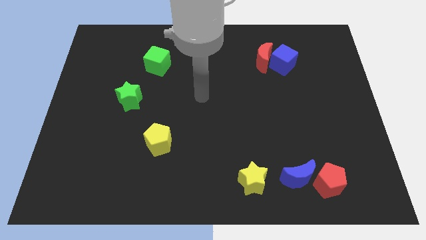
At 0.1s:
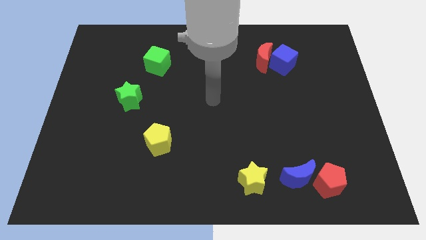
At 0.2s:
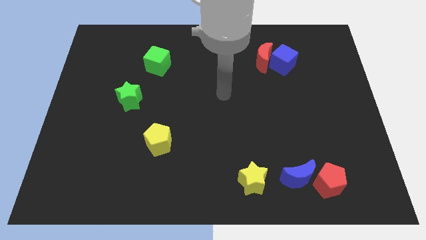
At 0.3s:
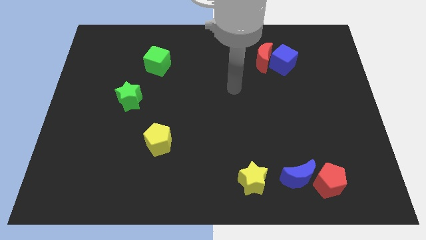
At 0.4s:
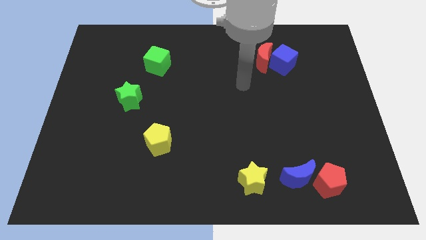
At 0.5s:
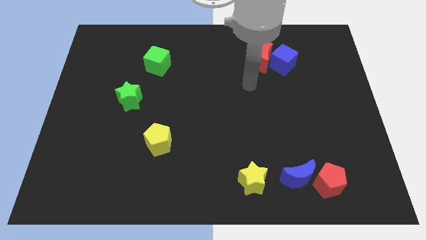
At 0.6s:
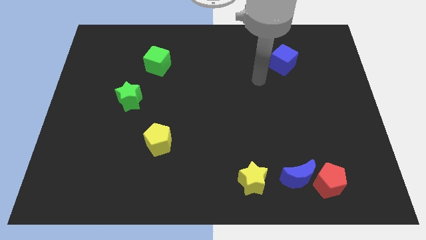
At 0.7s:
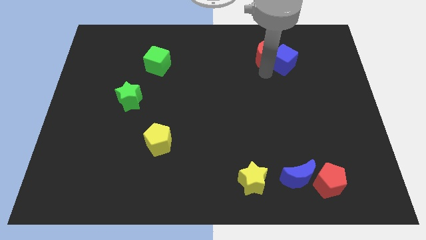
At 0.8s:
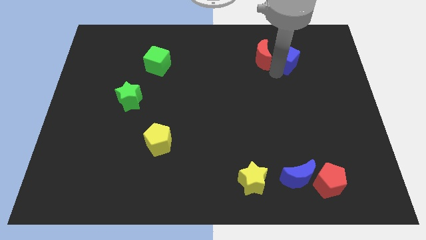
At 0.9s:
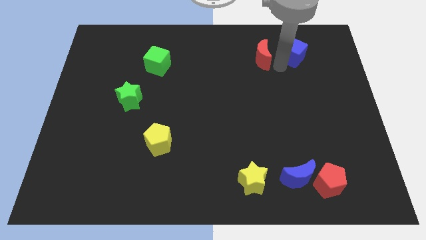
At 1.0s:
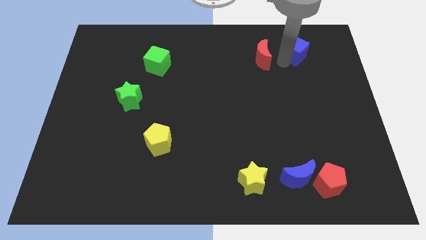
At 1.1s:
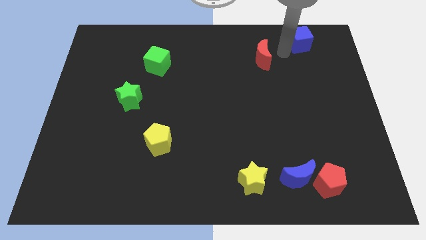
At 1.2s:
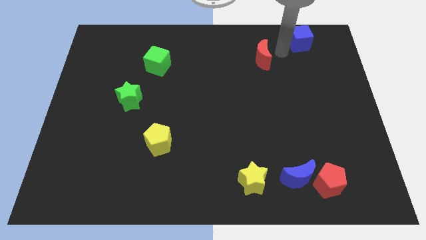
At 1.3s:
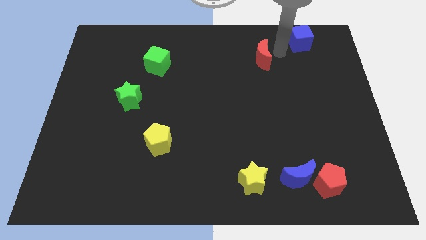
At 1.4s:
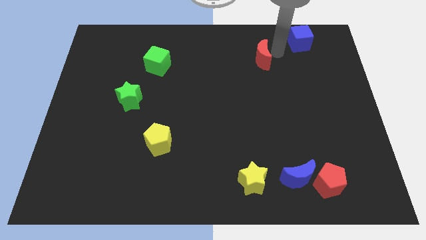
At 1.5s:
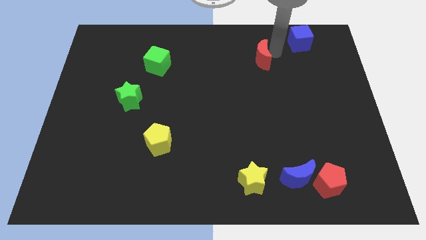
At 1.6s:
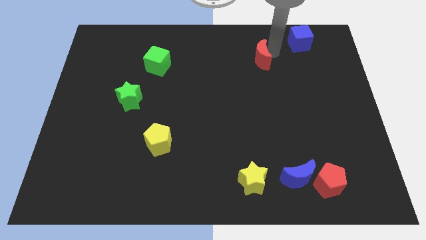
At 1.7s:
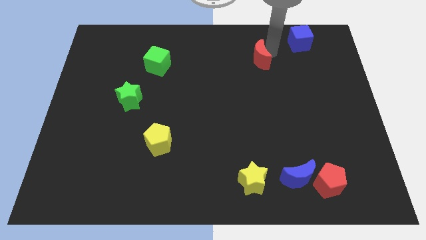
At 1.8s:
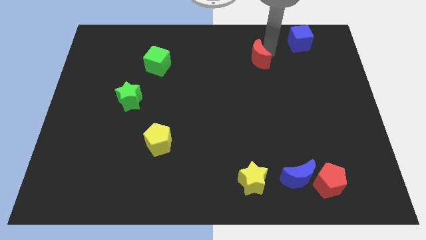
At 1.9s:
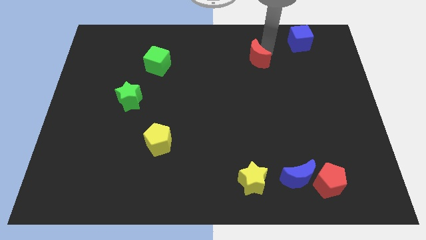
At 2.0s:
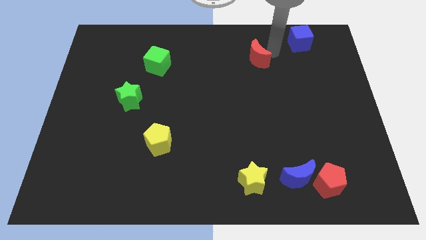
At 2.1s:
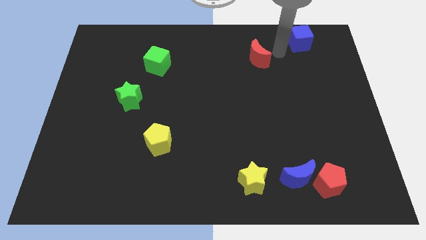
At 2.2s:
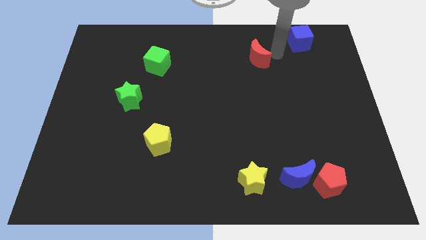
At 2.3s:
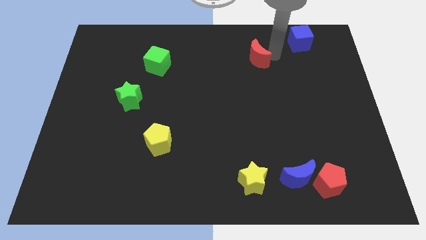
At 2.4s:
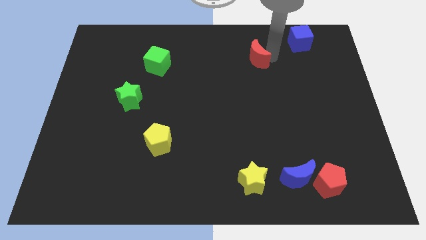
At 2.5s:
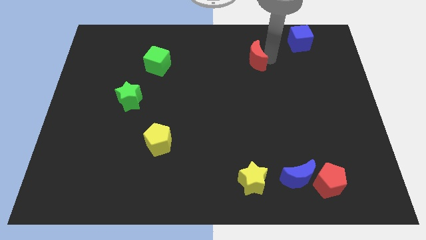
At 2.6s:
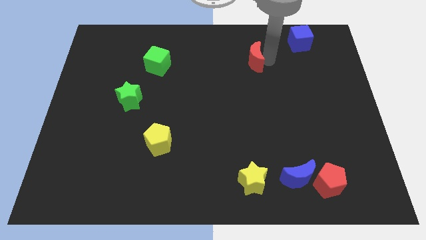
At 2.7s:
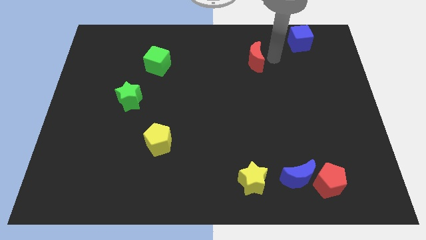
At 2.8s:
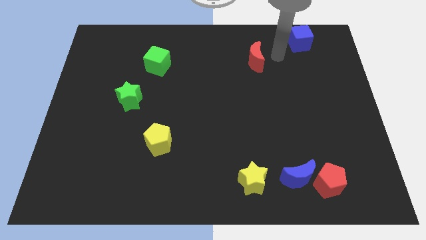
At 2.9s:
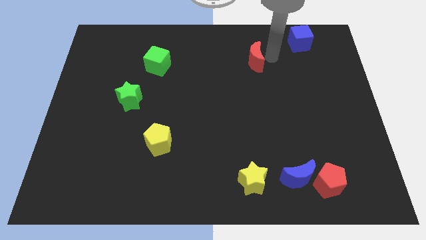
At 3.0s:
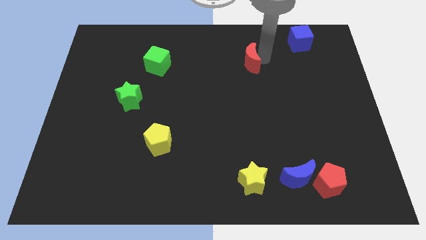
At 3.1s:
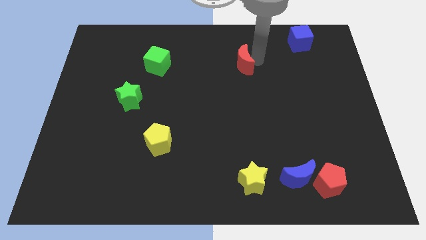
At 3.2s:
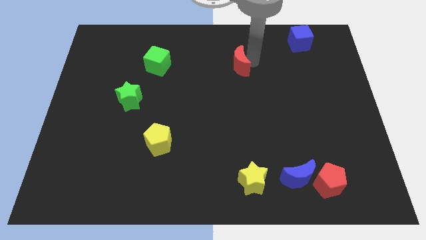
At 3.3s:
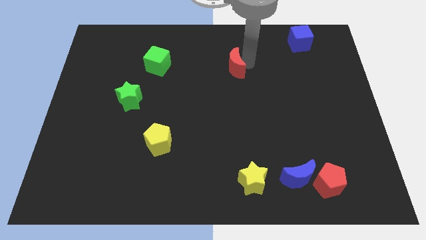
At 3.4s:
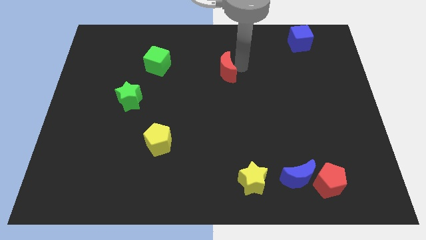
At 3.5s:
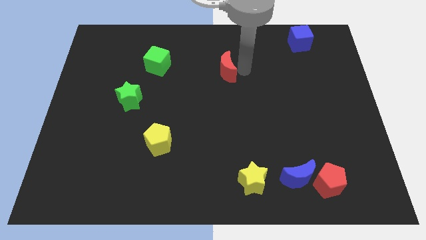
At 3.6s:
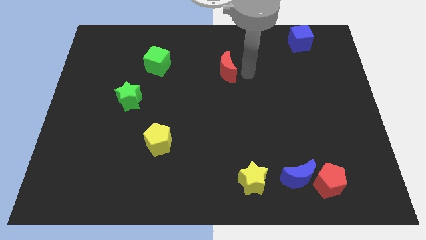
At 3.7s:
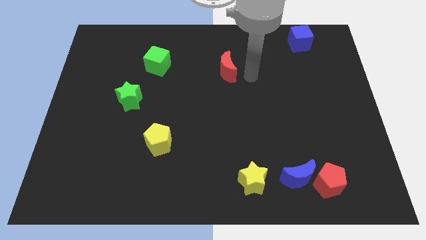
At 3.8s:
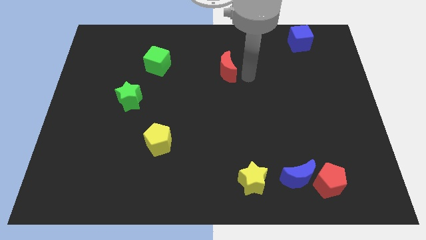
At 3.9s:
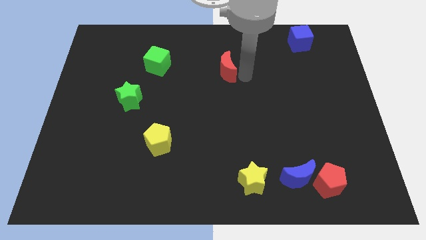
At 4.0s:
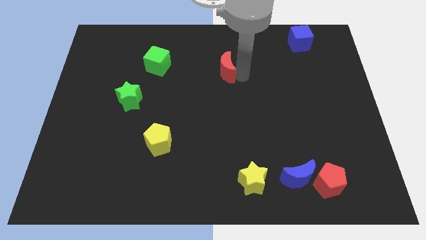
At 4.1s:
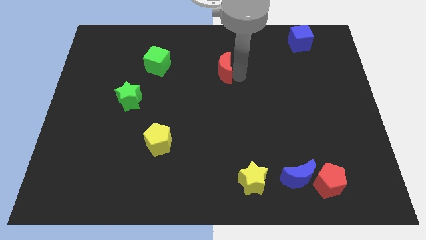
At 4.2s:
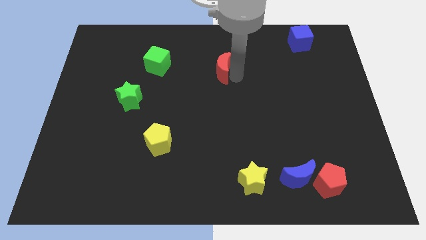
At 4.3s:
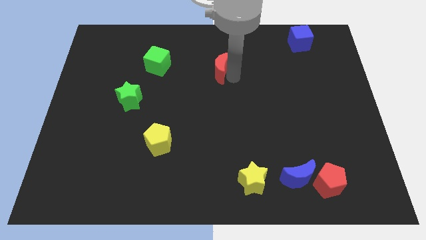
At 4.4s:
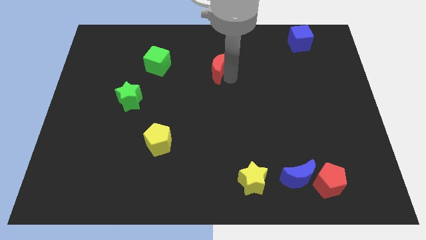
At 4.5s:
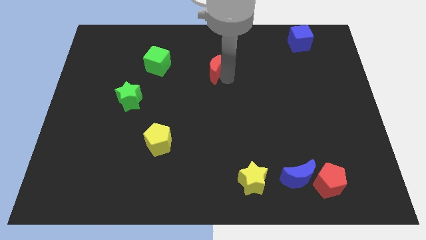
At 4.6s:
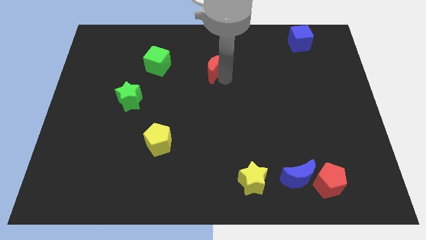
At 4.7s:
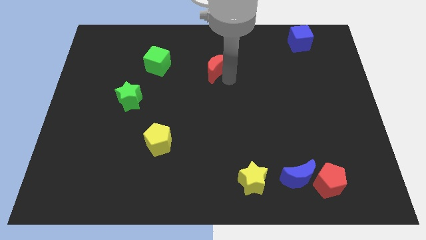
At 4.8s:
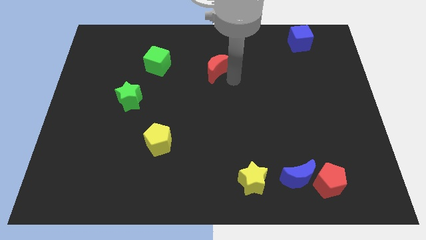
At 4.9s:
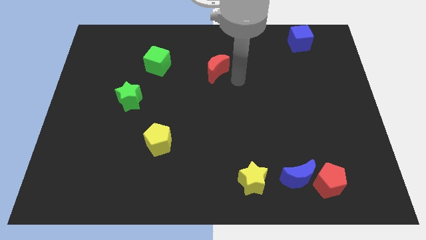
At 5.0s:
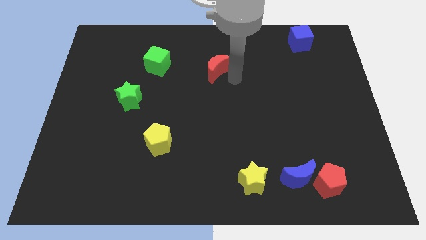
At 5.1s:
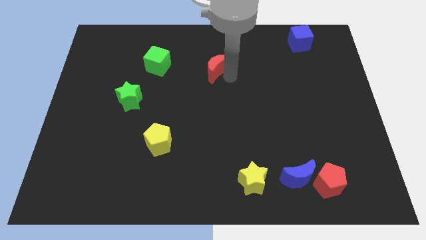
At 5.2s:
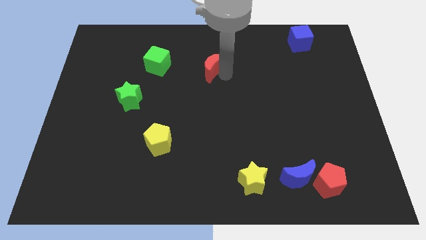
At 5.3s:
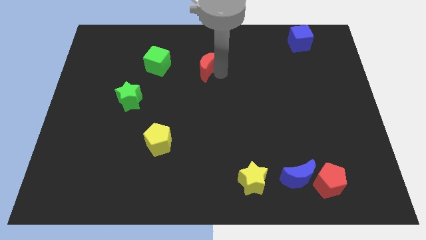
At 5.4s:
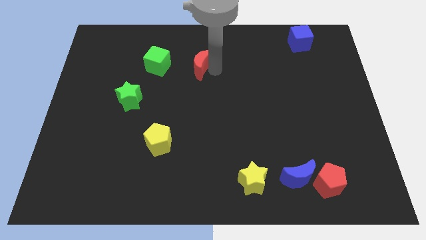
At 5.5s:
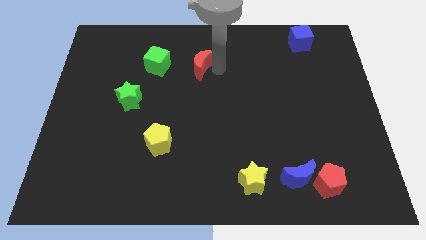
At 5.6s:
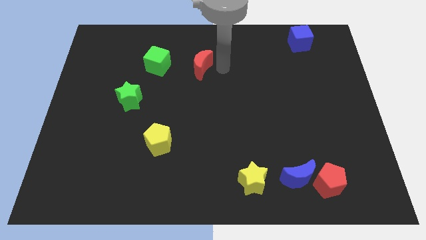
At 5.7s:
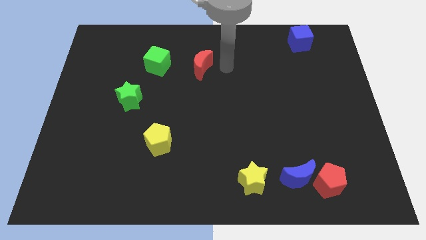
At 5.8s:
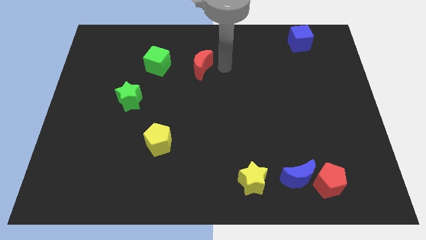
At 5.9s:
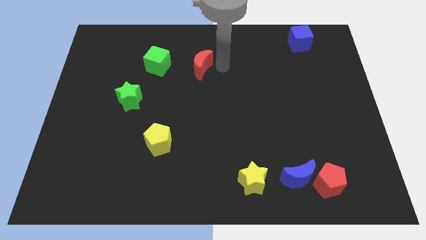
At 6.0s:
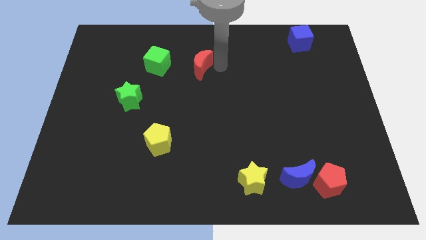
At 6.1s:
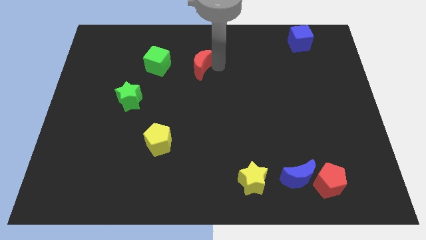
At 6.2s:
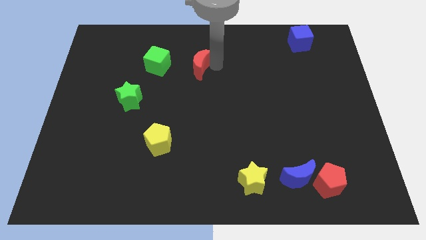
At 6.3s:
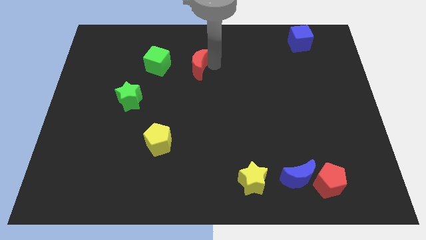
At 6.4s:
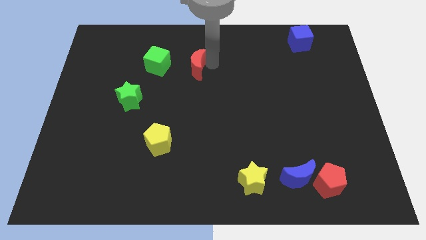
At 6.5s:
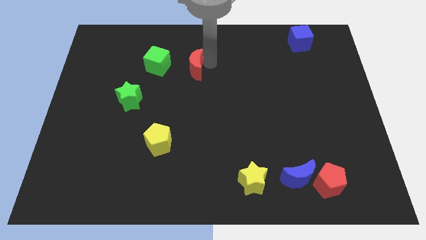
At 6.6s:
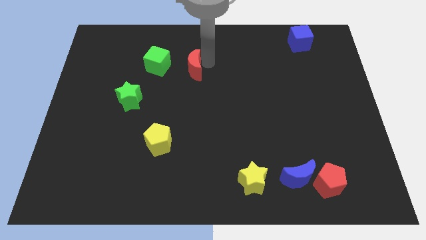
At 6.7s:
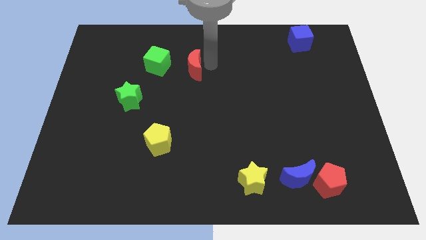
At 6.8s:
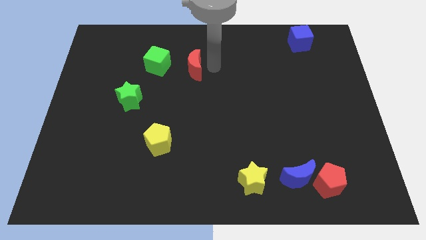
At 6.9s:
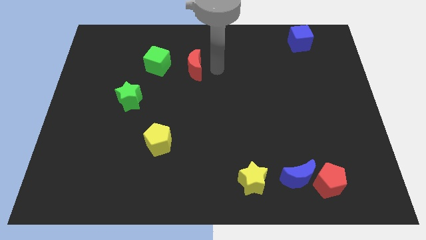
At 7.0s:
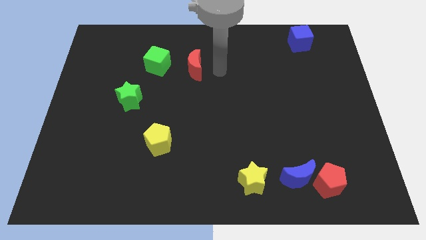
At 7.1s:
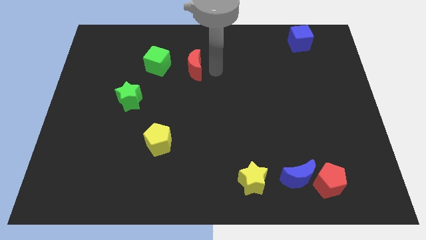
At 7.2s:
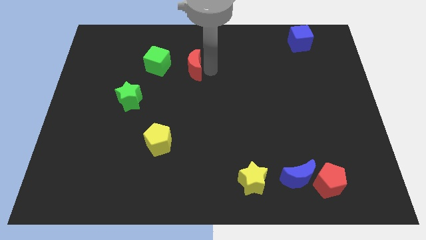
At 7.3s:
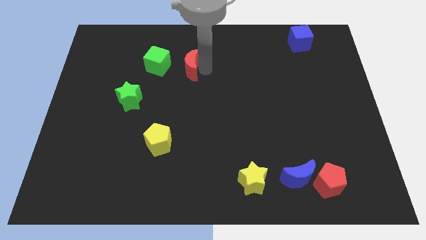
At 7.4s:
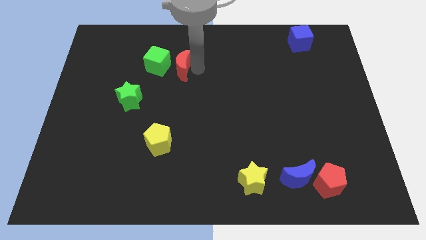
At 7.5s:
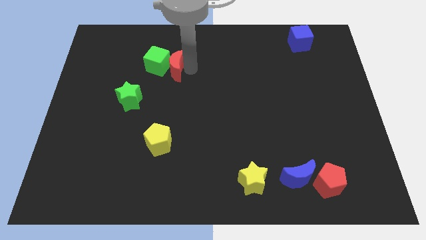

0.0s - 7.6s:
put the red moon close to the green cube
